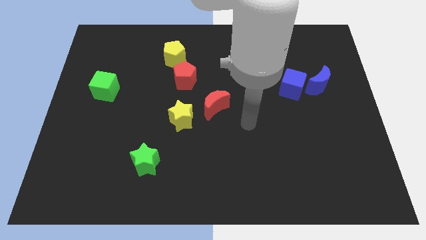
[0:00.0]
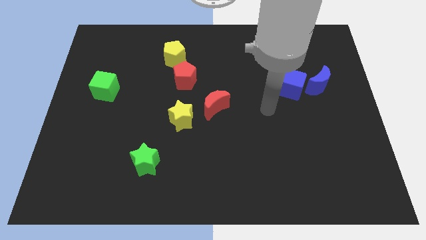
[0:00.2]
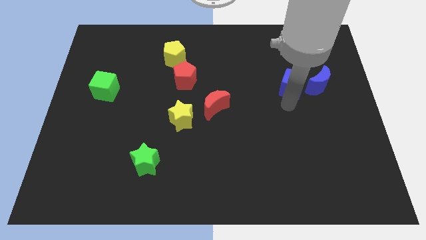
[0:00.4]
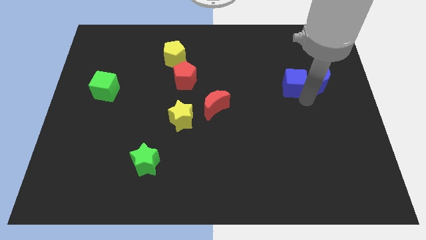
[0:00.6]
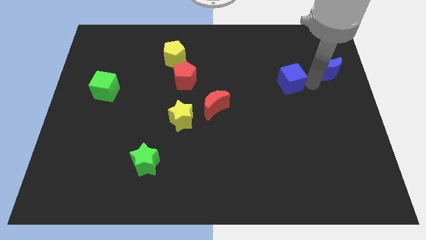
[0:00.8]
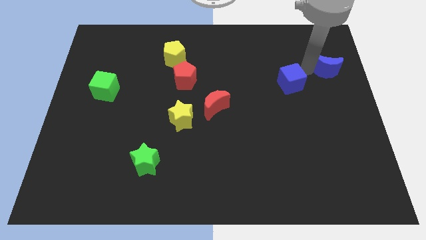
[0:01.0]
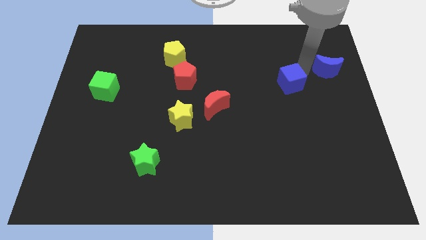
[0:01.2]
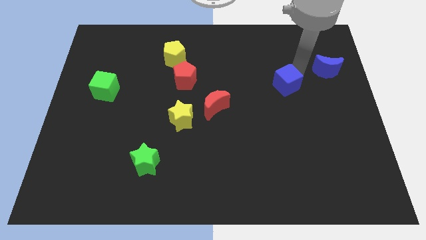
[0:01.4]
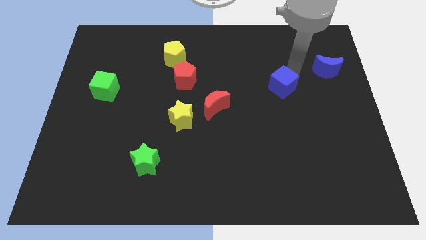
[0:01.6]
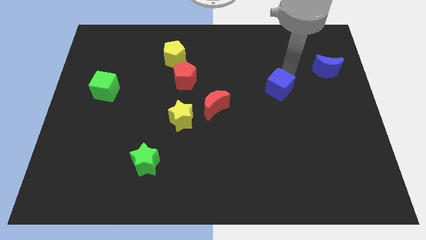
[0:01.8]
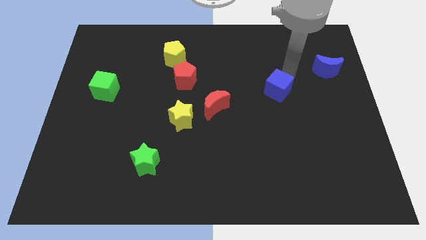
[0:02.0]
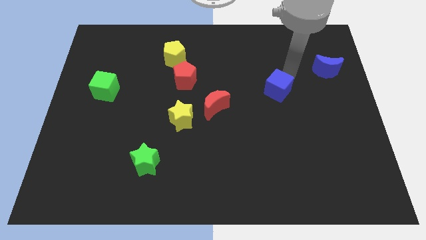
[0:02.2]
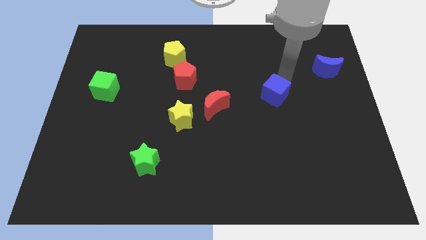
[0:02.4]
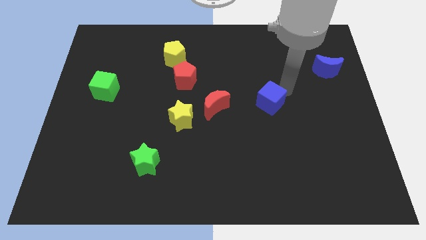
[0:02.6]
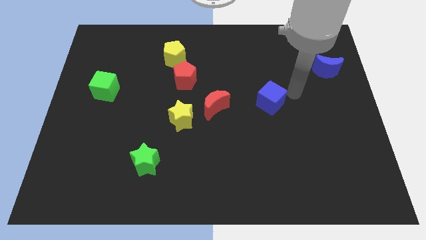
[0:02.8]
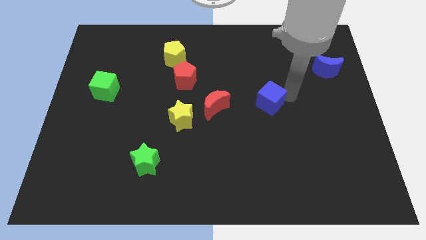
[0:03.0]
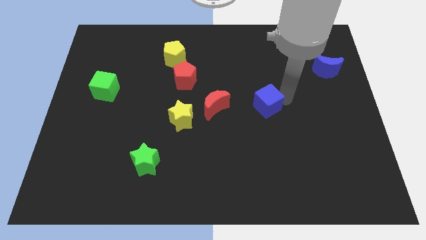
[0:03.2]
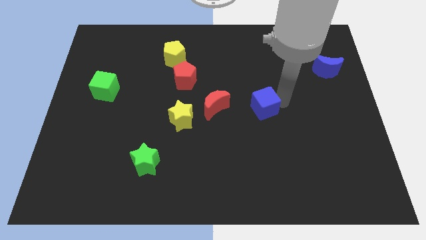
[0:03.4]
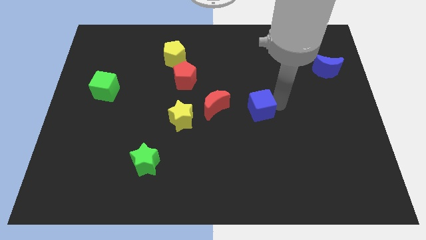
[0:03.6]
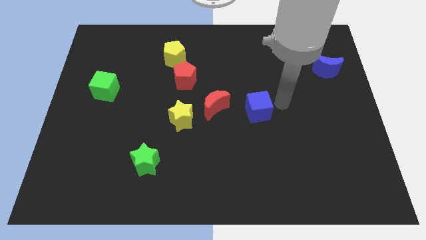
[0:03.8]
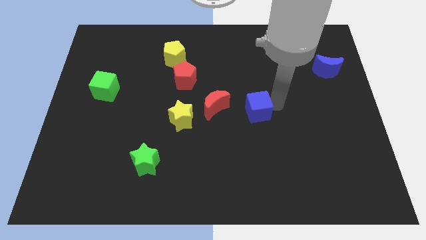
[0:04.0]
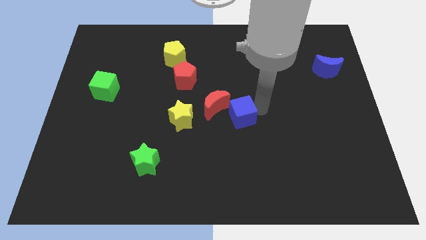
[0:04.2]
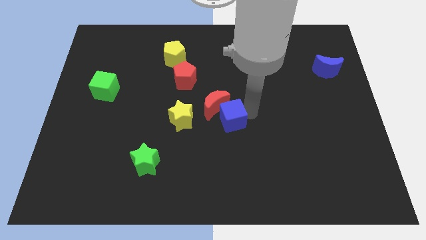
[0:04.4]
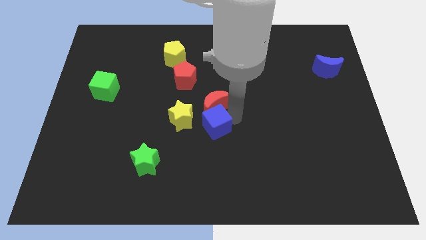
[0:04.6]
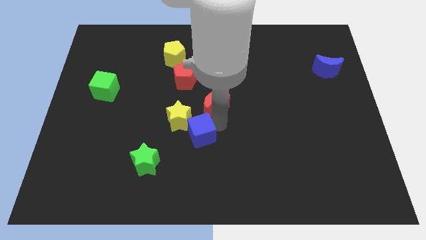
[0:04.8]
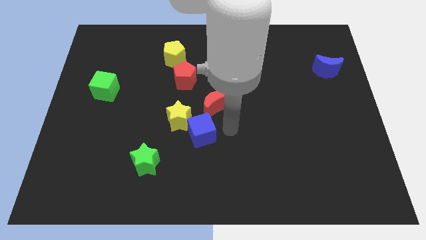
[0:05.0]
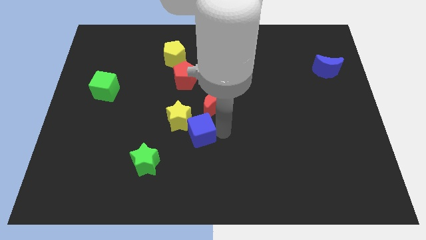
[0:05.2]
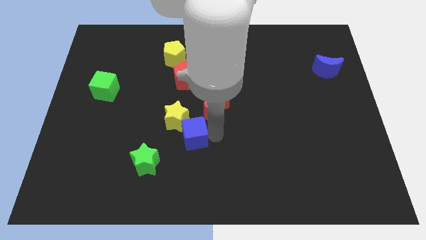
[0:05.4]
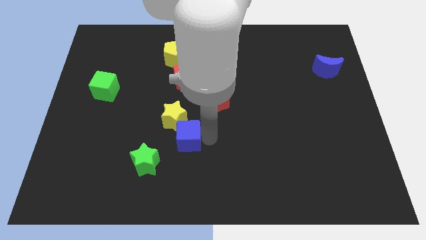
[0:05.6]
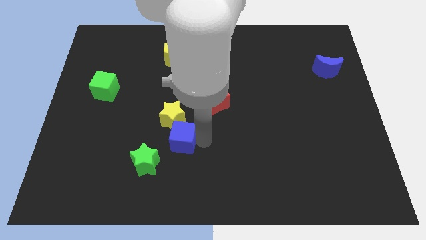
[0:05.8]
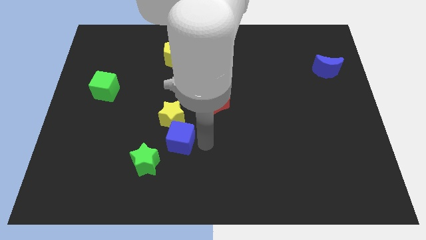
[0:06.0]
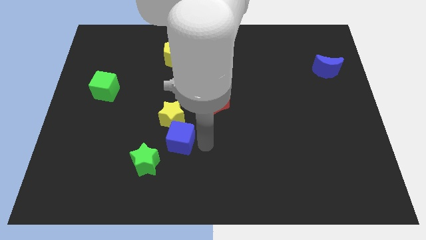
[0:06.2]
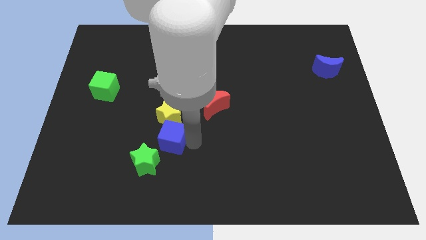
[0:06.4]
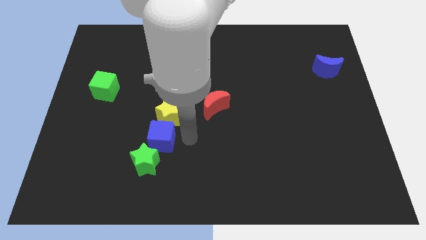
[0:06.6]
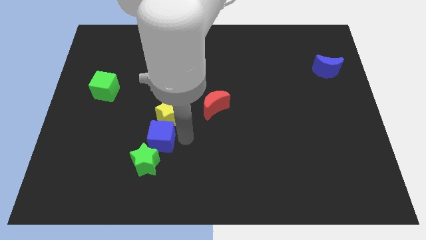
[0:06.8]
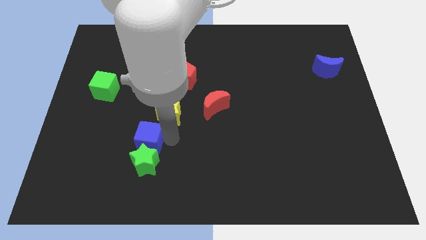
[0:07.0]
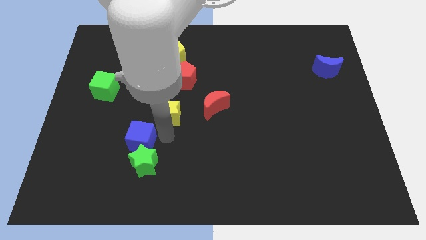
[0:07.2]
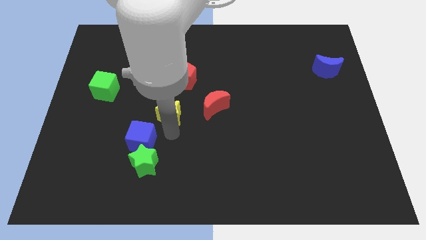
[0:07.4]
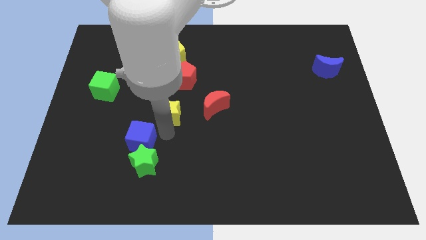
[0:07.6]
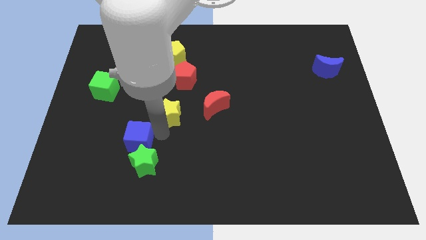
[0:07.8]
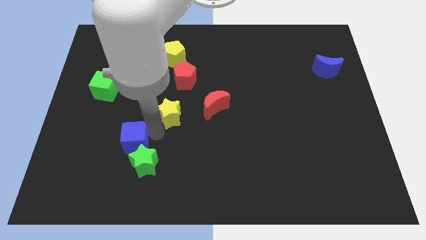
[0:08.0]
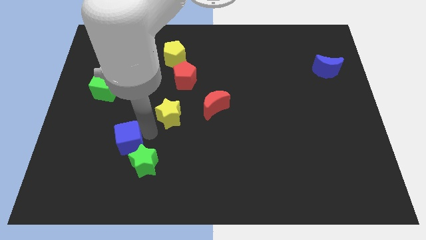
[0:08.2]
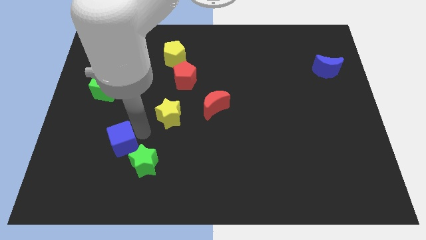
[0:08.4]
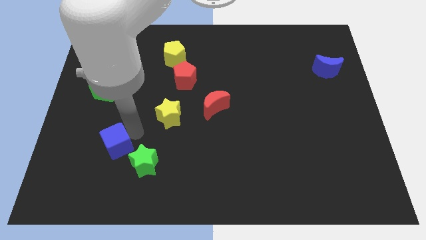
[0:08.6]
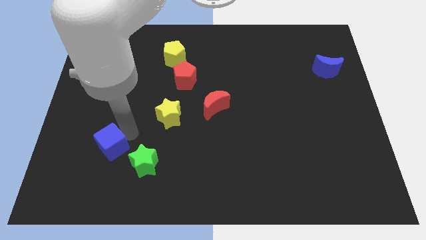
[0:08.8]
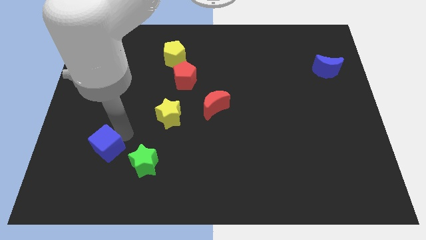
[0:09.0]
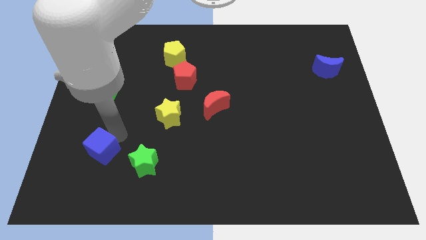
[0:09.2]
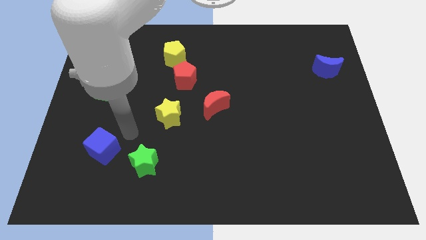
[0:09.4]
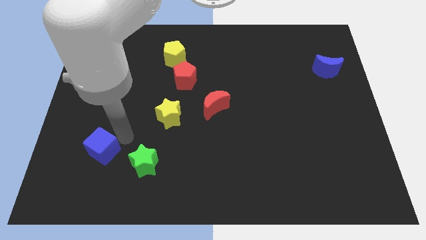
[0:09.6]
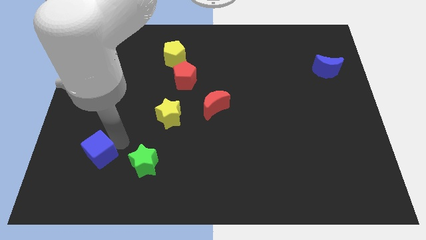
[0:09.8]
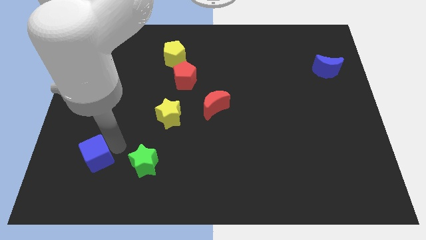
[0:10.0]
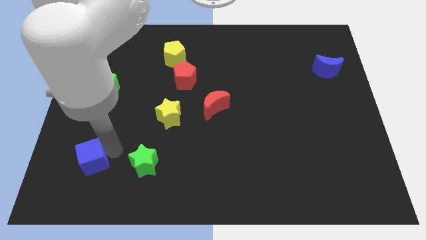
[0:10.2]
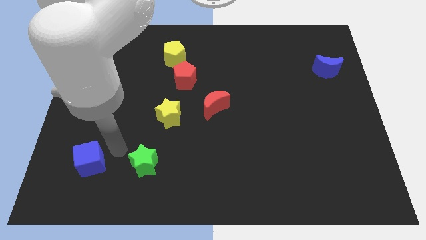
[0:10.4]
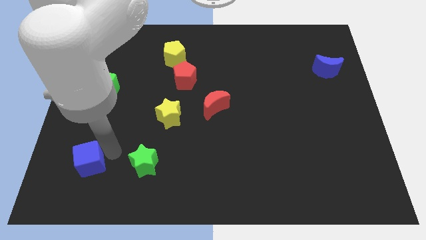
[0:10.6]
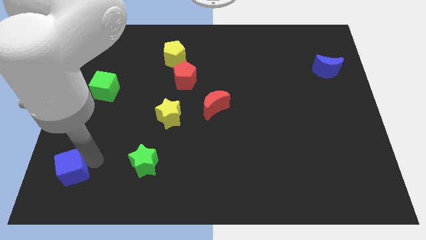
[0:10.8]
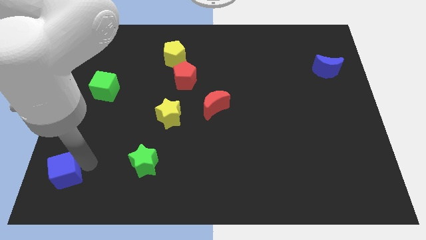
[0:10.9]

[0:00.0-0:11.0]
slide the blue cube to the bottom left of the board

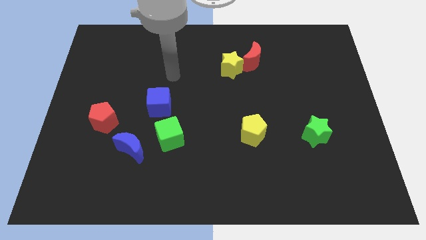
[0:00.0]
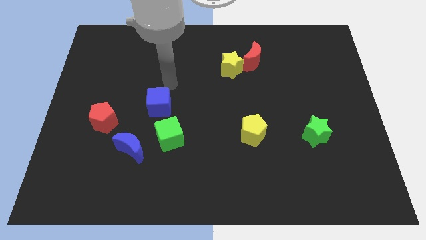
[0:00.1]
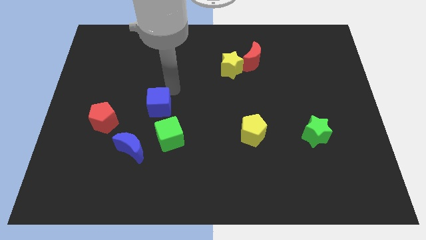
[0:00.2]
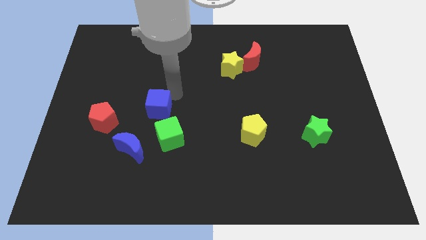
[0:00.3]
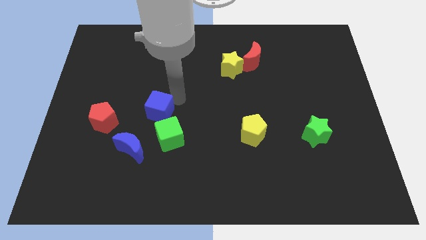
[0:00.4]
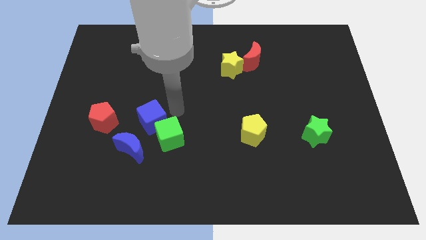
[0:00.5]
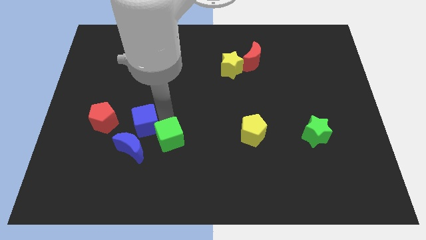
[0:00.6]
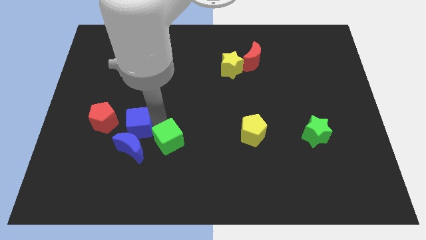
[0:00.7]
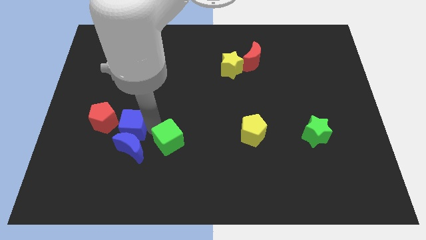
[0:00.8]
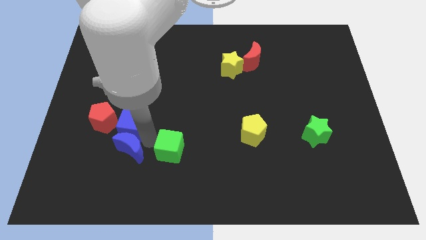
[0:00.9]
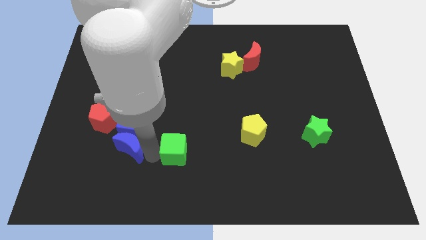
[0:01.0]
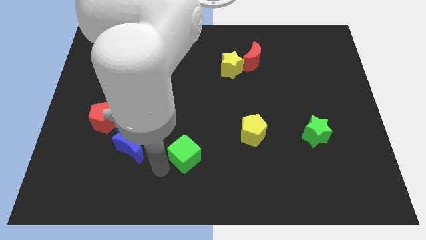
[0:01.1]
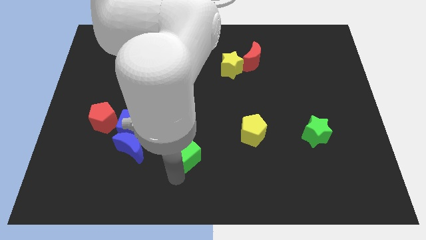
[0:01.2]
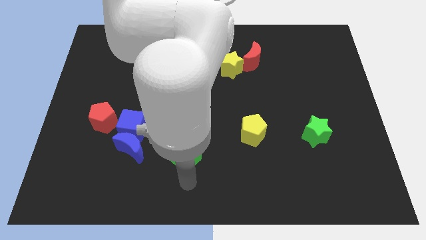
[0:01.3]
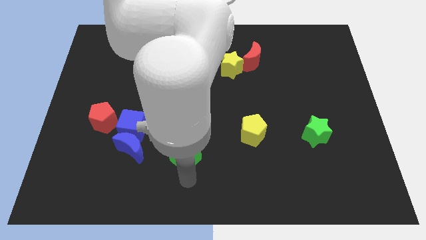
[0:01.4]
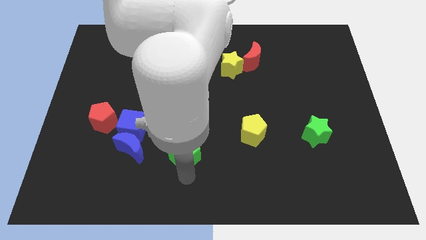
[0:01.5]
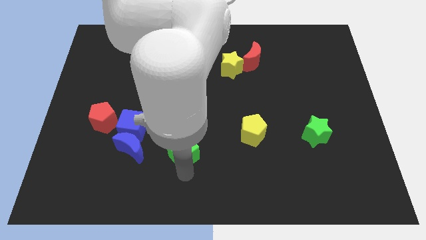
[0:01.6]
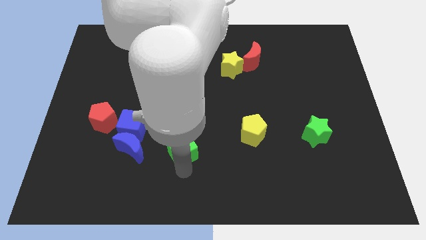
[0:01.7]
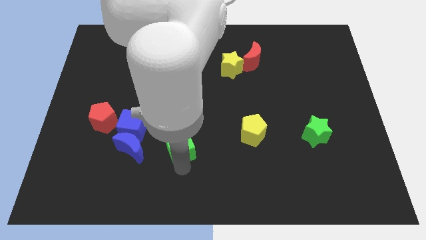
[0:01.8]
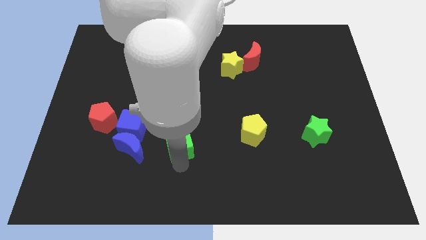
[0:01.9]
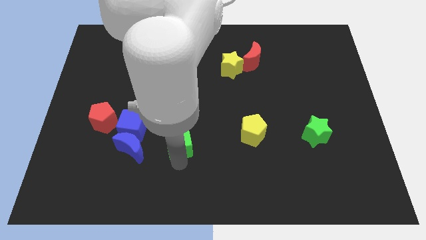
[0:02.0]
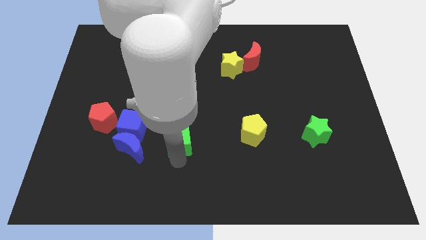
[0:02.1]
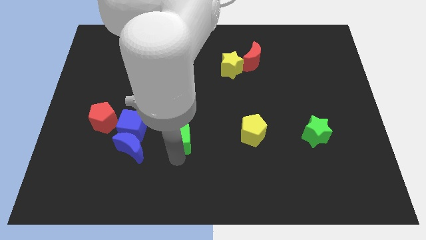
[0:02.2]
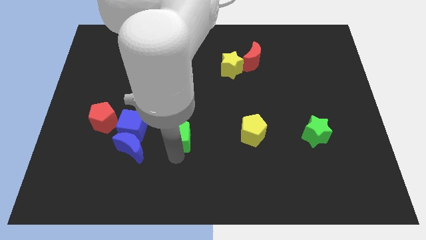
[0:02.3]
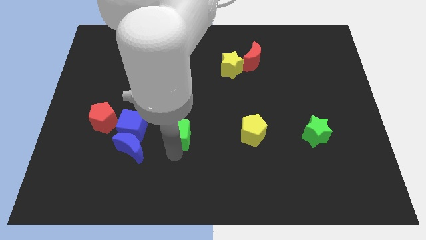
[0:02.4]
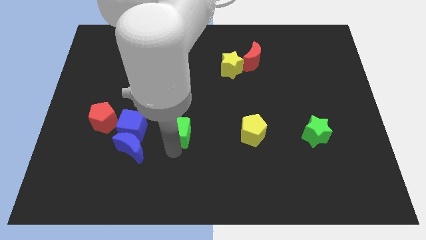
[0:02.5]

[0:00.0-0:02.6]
push the green cube to the center of the board
